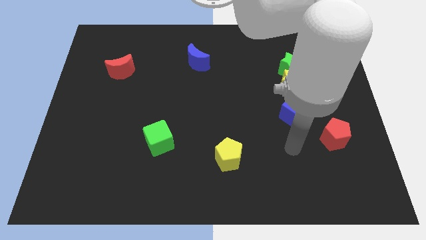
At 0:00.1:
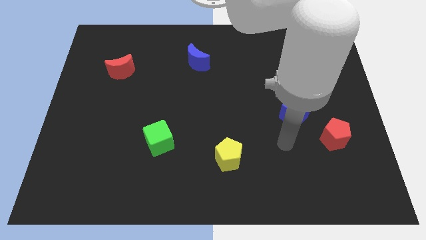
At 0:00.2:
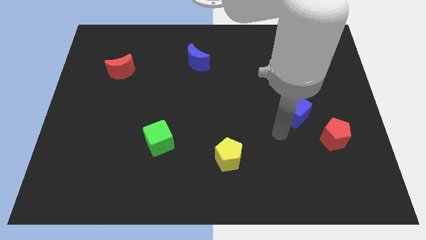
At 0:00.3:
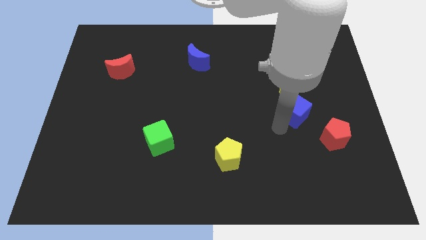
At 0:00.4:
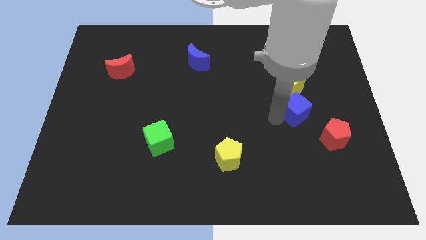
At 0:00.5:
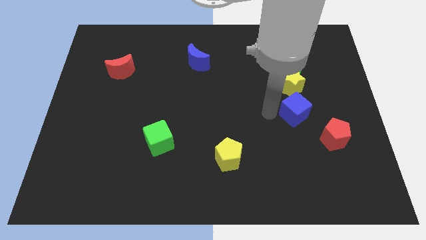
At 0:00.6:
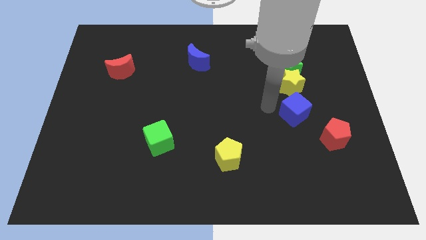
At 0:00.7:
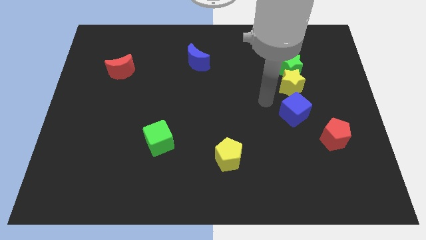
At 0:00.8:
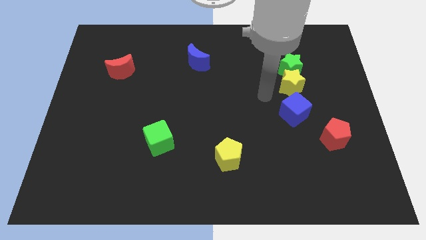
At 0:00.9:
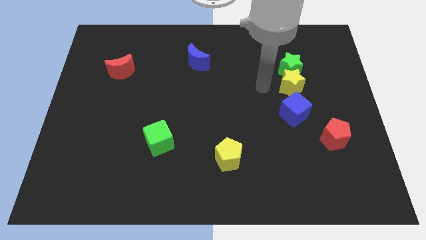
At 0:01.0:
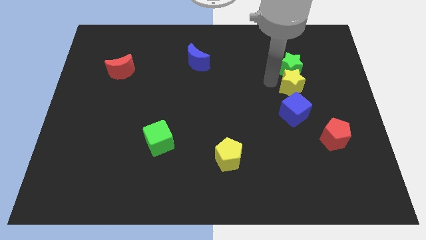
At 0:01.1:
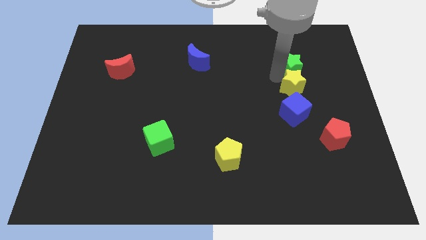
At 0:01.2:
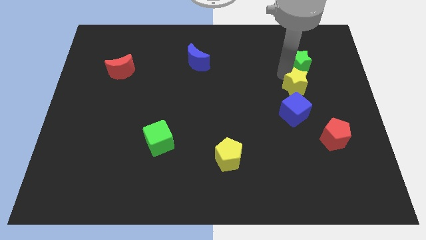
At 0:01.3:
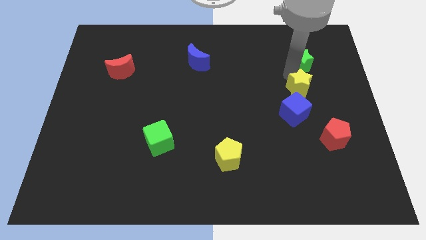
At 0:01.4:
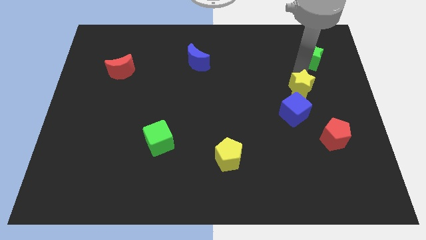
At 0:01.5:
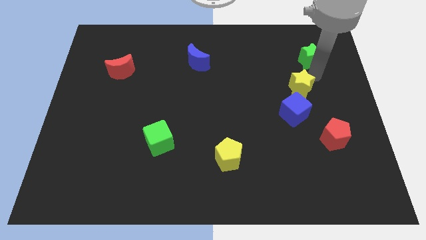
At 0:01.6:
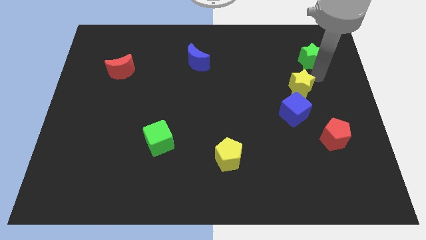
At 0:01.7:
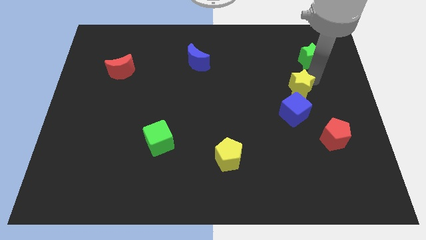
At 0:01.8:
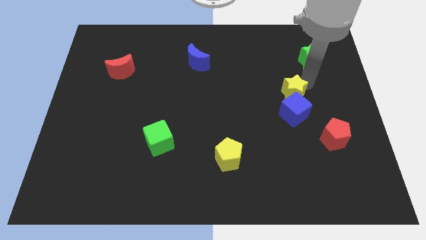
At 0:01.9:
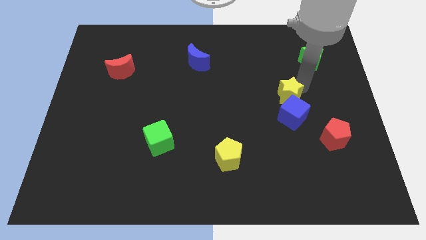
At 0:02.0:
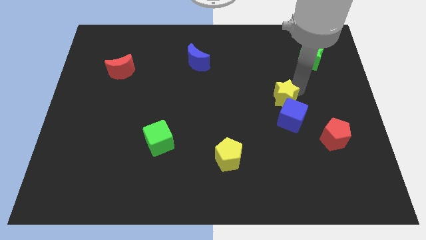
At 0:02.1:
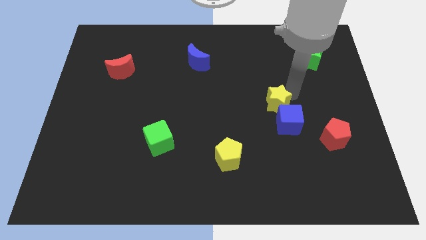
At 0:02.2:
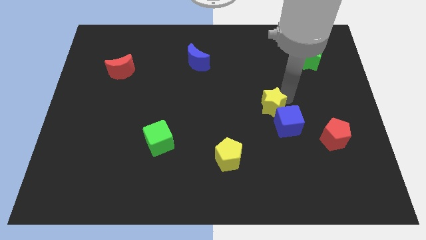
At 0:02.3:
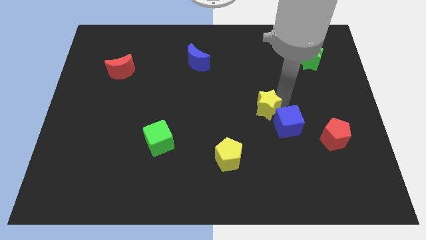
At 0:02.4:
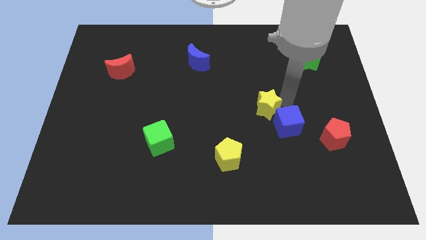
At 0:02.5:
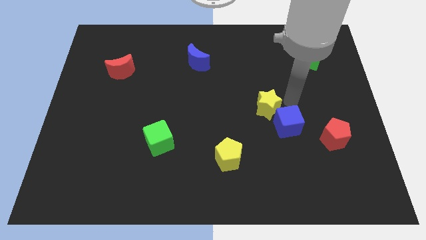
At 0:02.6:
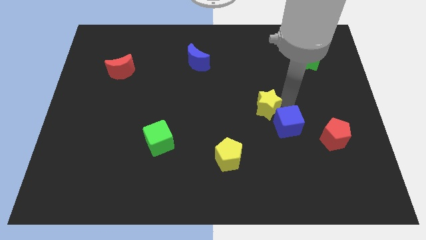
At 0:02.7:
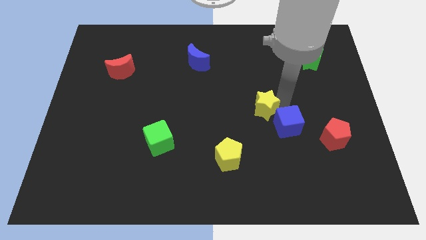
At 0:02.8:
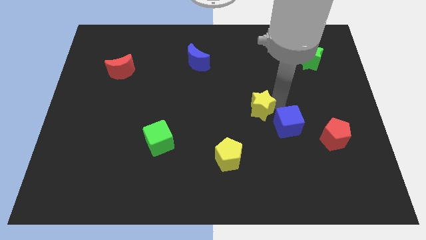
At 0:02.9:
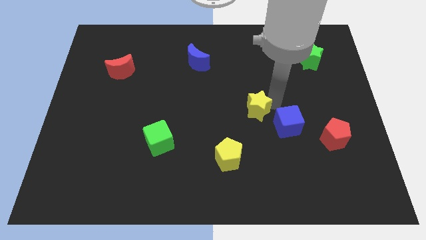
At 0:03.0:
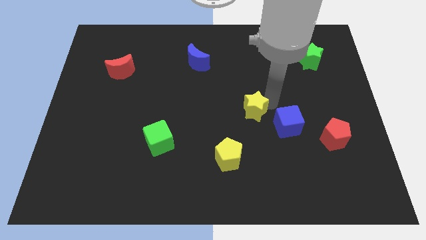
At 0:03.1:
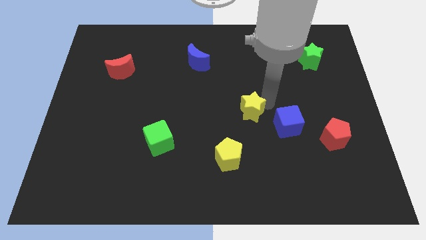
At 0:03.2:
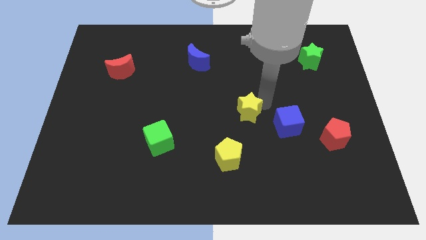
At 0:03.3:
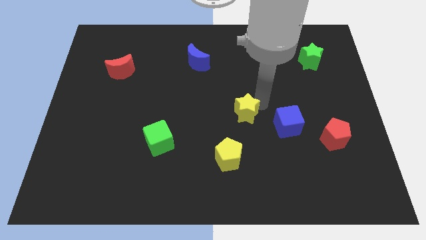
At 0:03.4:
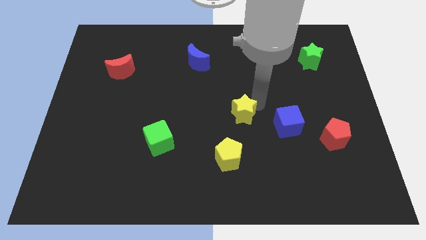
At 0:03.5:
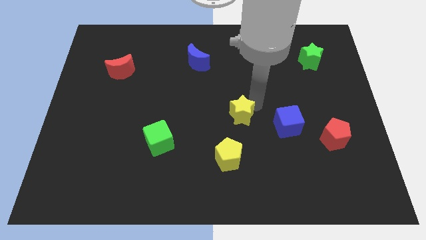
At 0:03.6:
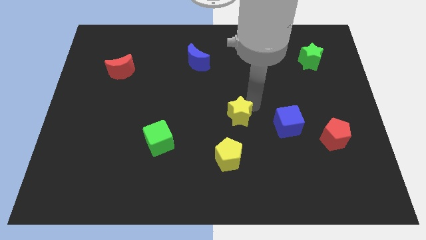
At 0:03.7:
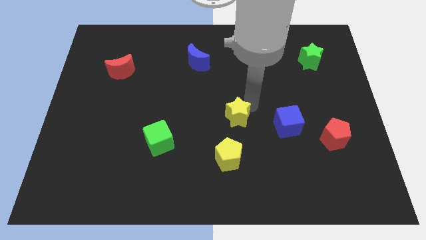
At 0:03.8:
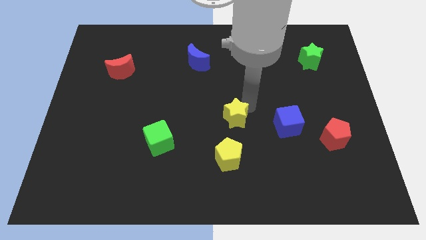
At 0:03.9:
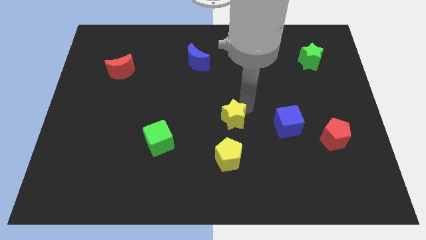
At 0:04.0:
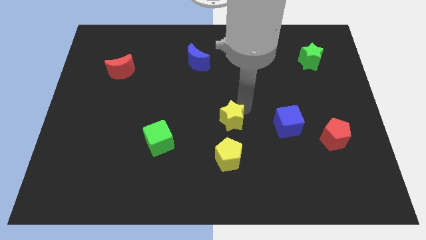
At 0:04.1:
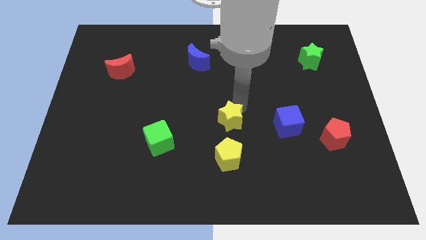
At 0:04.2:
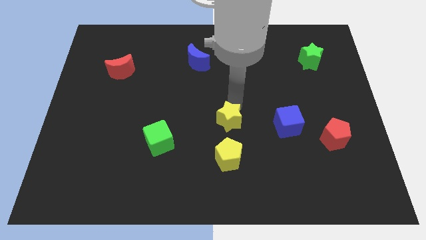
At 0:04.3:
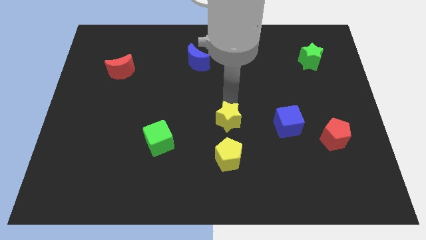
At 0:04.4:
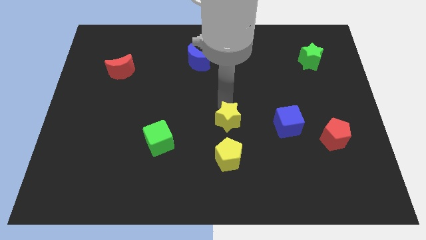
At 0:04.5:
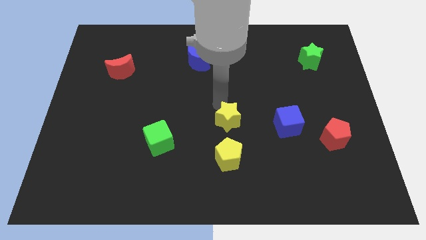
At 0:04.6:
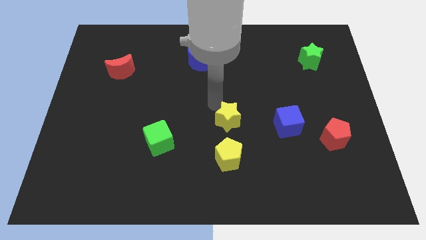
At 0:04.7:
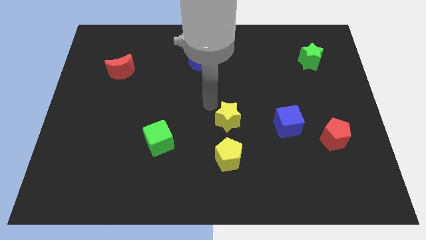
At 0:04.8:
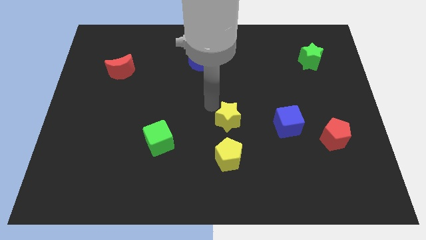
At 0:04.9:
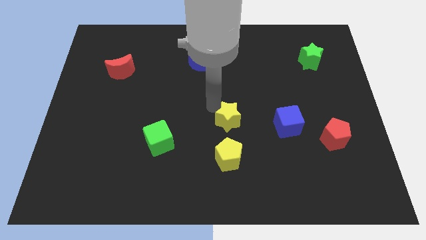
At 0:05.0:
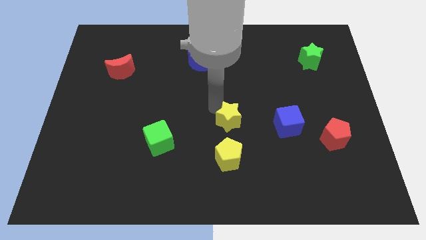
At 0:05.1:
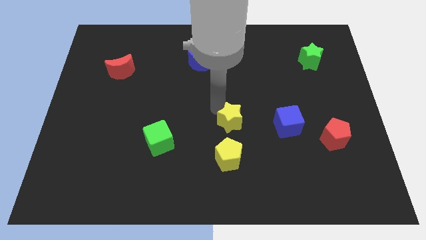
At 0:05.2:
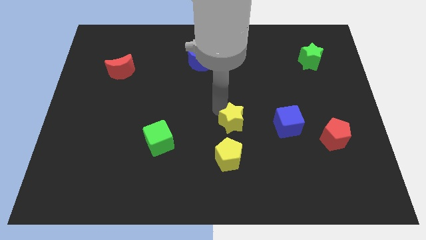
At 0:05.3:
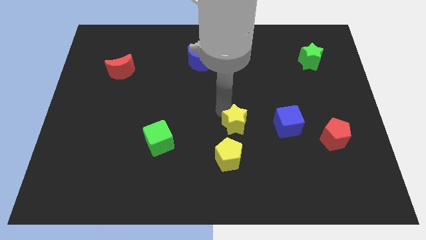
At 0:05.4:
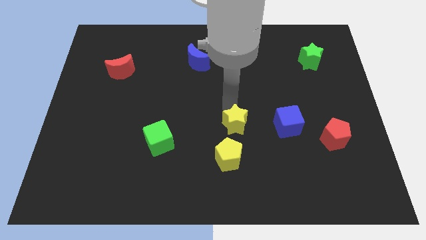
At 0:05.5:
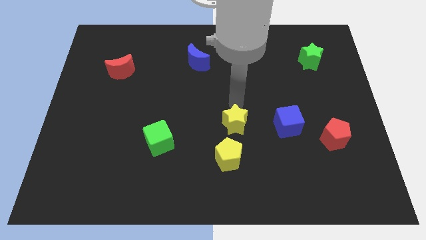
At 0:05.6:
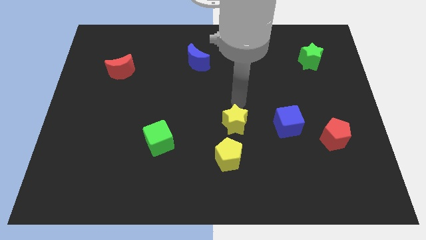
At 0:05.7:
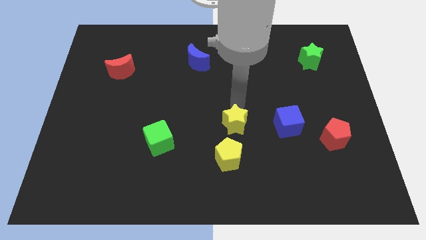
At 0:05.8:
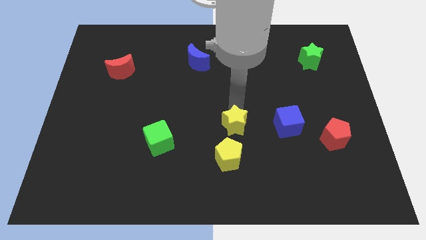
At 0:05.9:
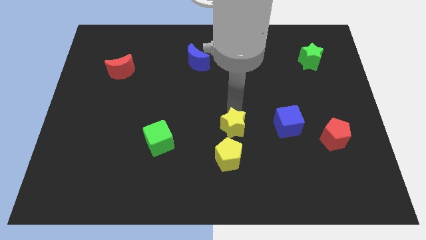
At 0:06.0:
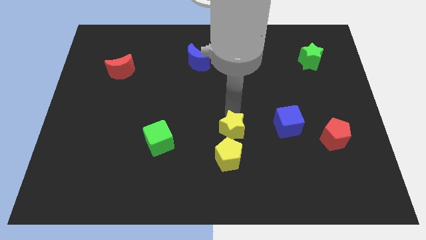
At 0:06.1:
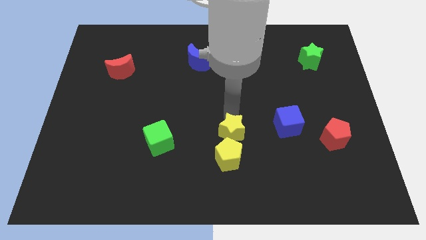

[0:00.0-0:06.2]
move the yellow star to the yellow pentagon
